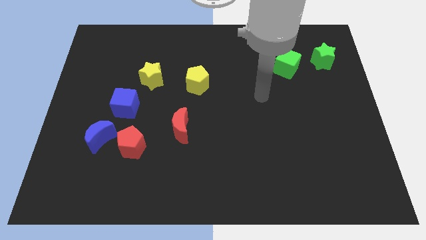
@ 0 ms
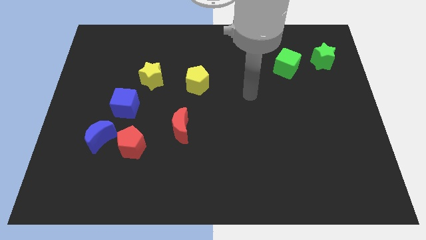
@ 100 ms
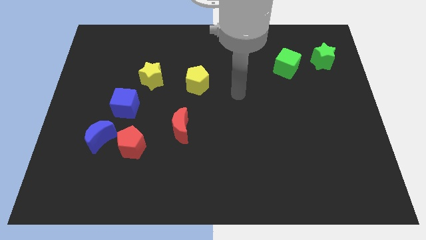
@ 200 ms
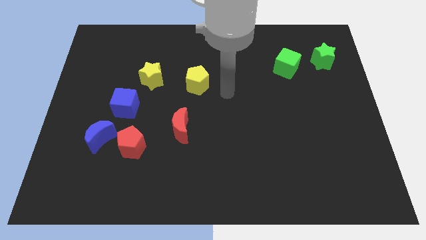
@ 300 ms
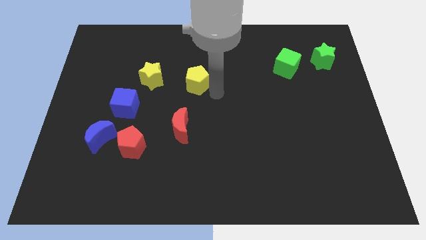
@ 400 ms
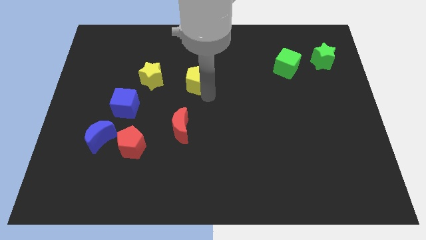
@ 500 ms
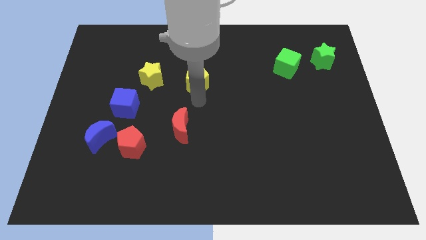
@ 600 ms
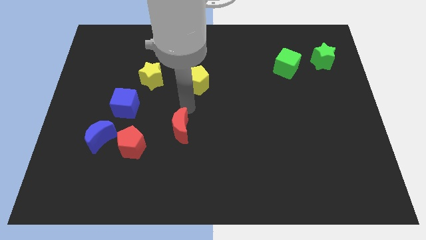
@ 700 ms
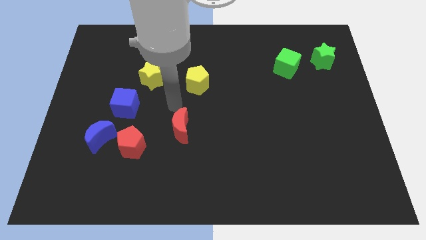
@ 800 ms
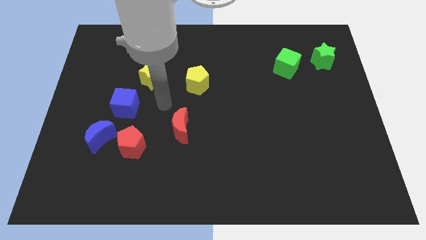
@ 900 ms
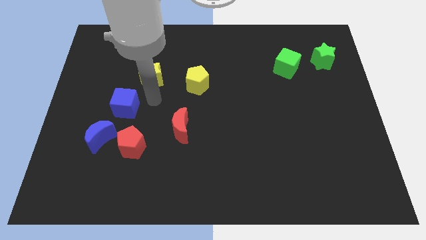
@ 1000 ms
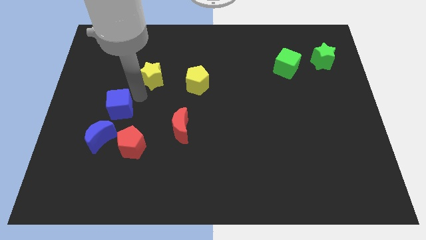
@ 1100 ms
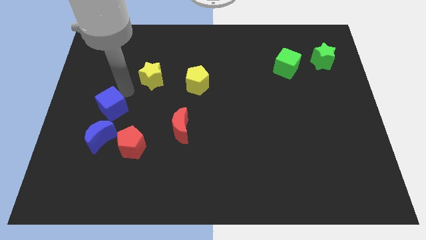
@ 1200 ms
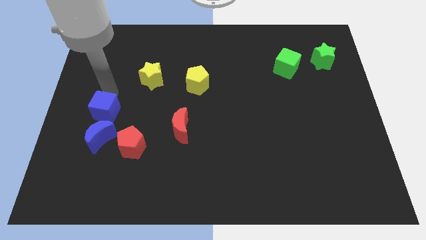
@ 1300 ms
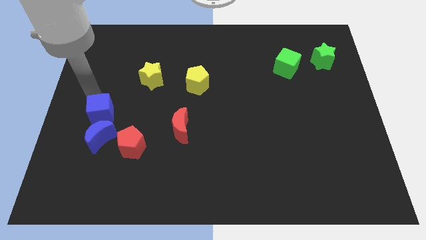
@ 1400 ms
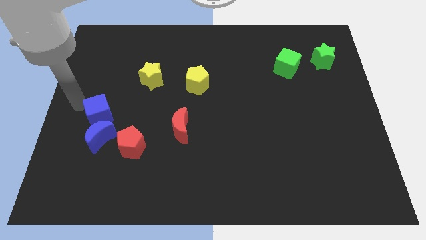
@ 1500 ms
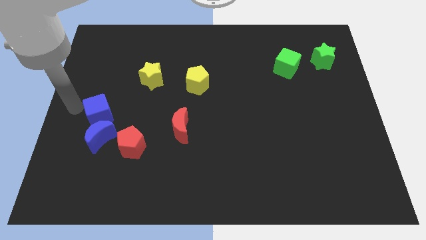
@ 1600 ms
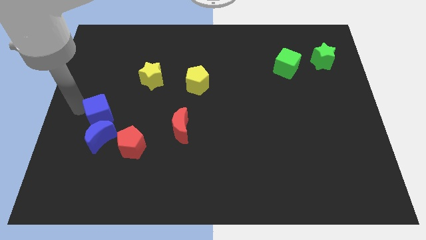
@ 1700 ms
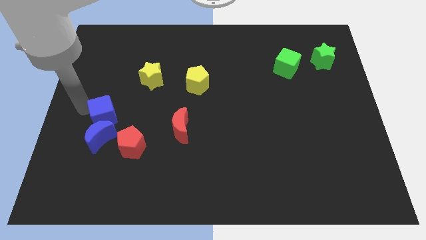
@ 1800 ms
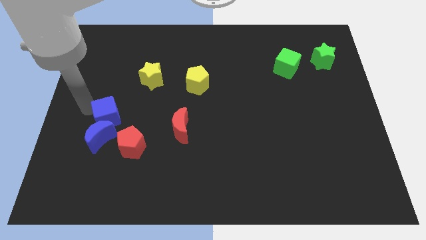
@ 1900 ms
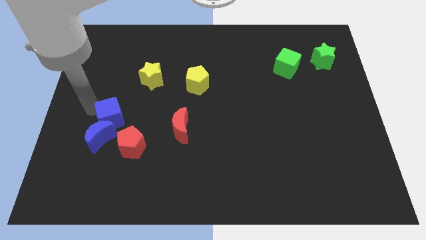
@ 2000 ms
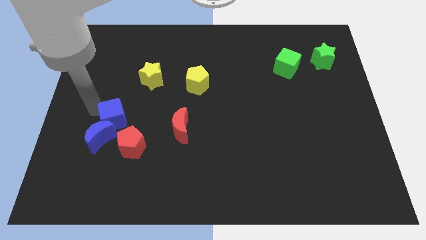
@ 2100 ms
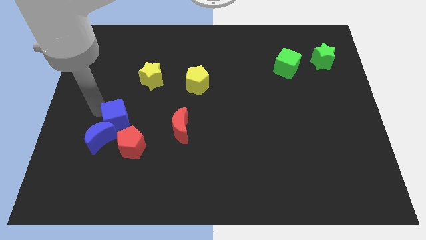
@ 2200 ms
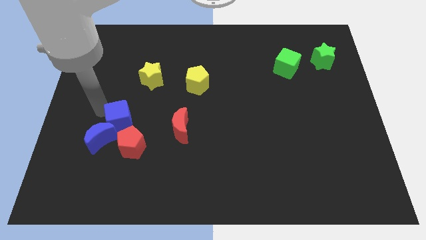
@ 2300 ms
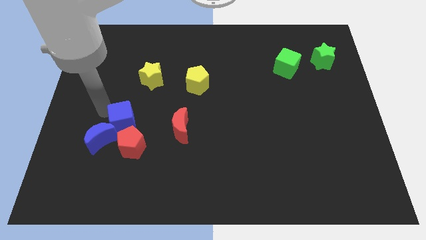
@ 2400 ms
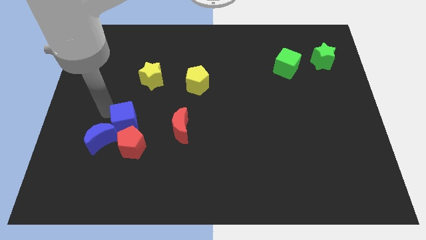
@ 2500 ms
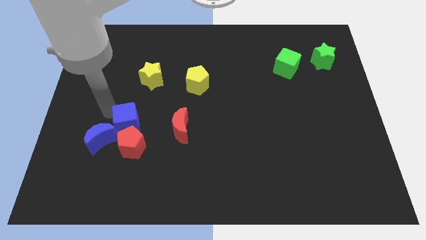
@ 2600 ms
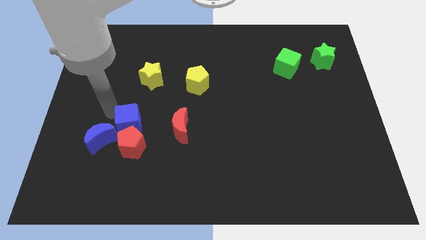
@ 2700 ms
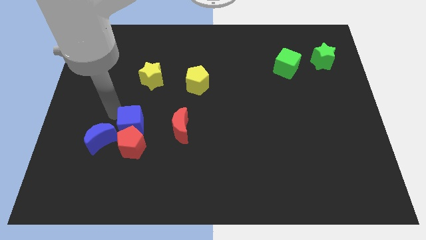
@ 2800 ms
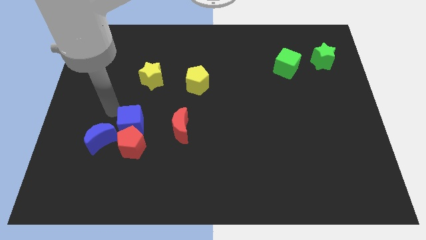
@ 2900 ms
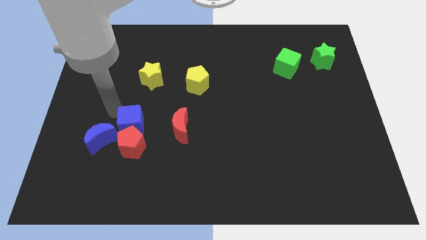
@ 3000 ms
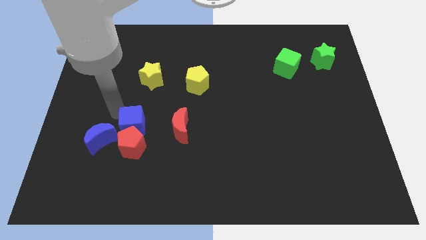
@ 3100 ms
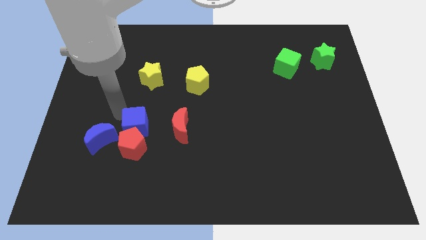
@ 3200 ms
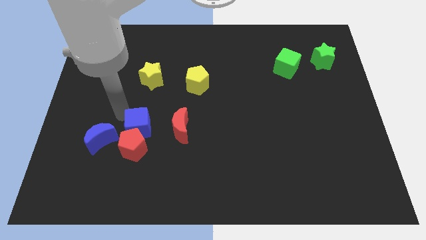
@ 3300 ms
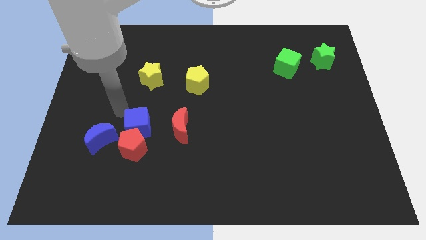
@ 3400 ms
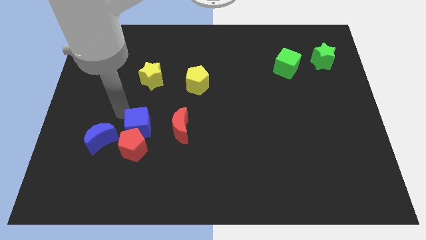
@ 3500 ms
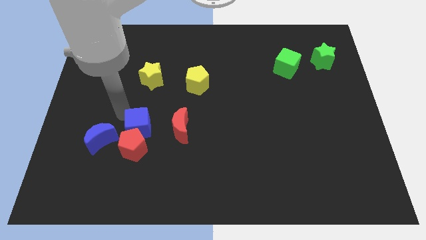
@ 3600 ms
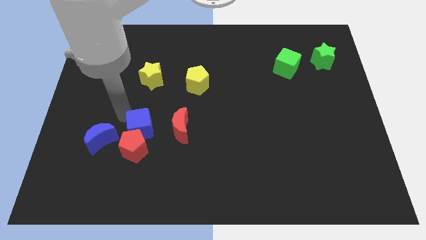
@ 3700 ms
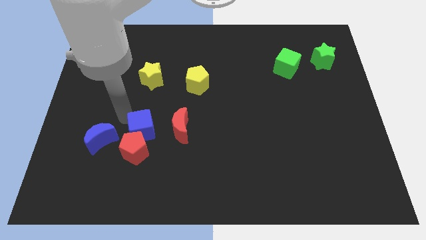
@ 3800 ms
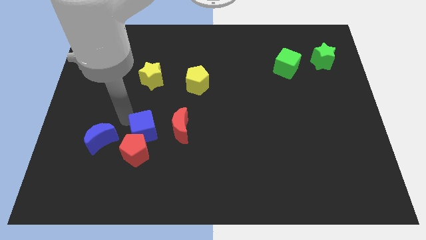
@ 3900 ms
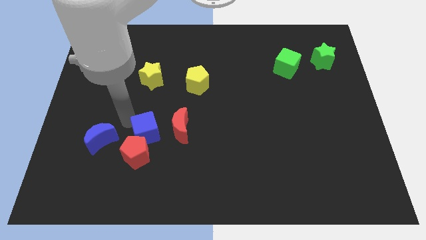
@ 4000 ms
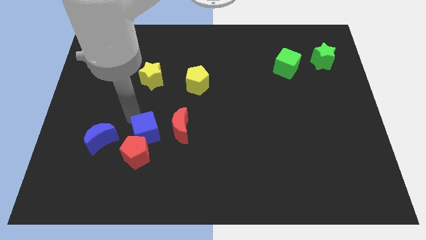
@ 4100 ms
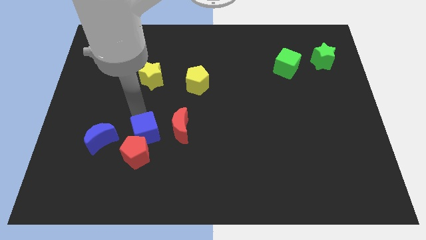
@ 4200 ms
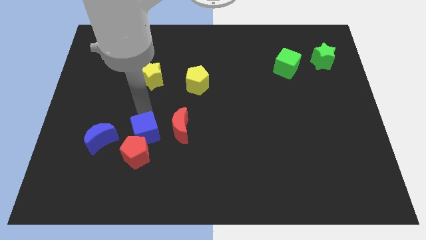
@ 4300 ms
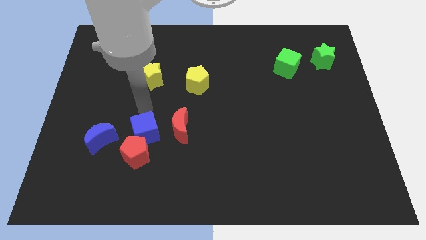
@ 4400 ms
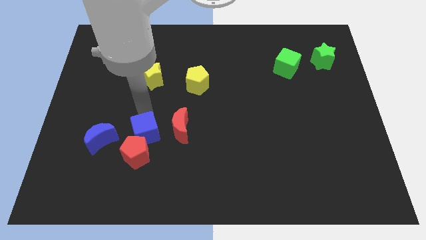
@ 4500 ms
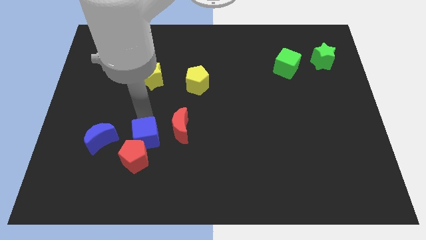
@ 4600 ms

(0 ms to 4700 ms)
slightly move the blue cube down

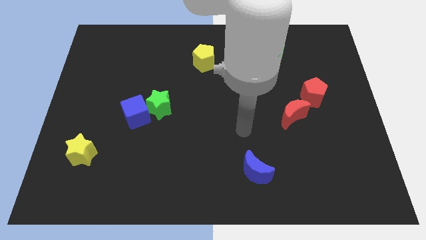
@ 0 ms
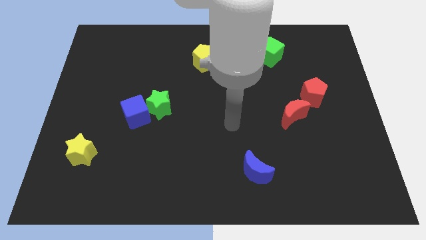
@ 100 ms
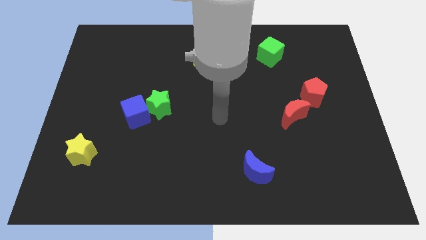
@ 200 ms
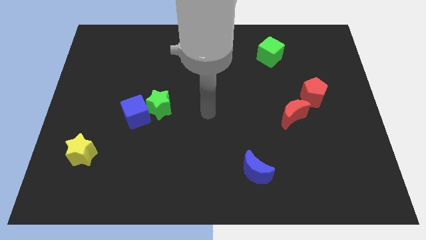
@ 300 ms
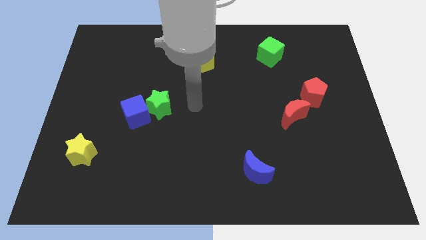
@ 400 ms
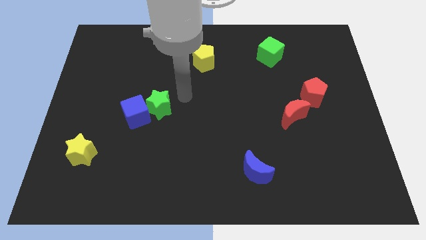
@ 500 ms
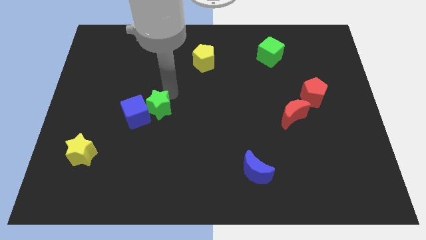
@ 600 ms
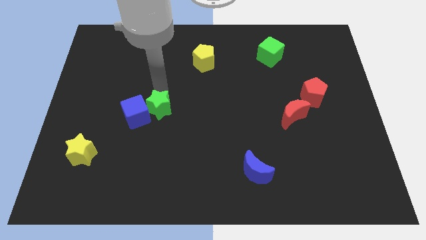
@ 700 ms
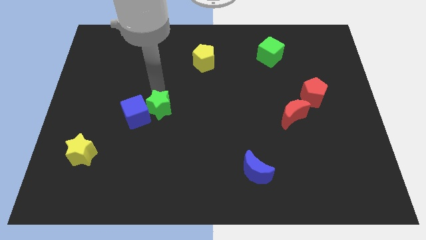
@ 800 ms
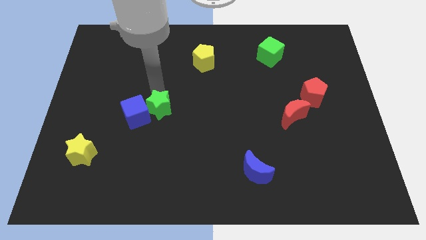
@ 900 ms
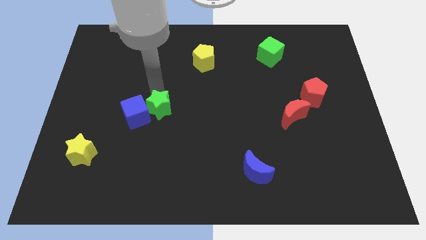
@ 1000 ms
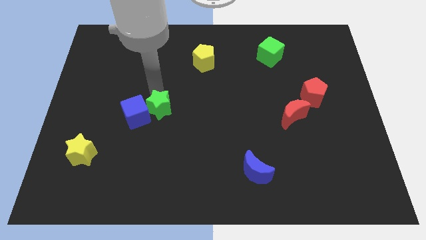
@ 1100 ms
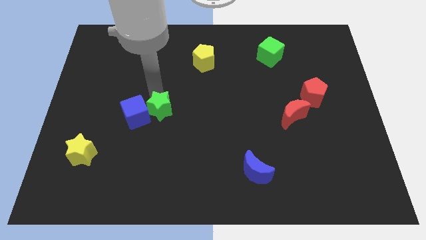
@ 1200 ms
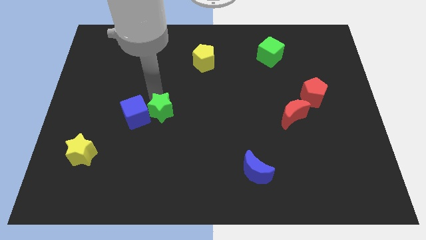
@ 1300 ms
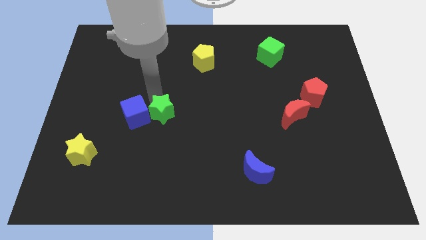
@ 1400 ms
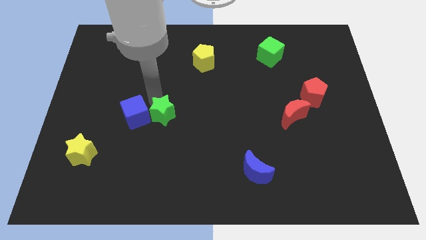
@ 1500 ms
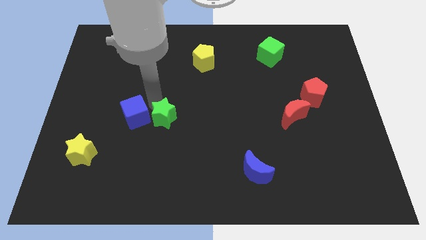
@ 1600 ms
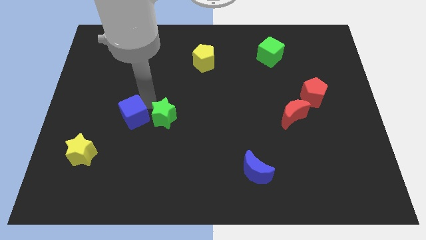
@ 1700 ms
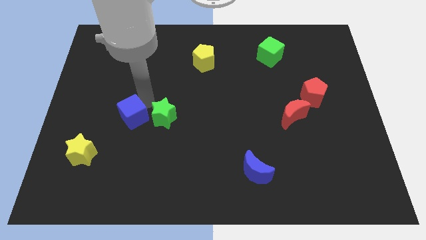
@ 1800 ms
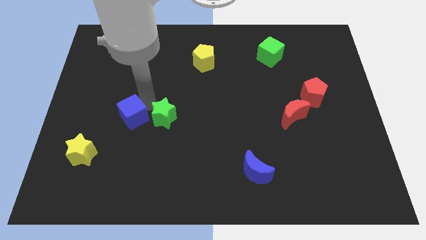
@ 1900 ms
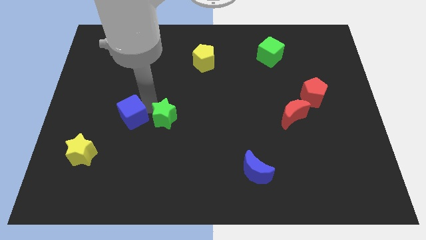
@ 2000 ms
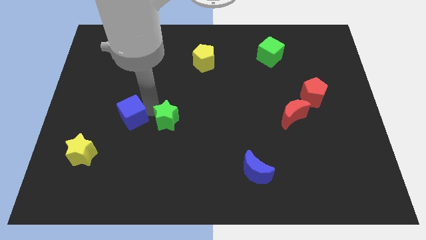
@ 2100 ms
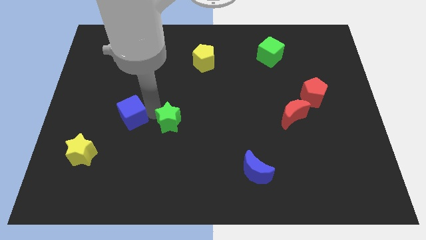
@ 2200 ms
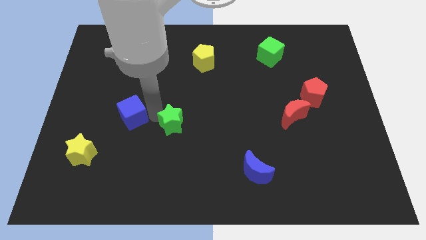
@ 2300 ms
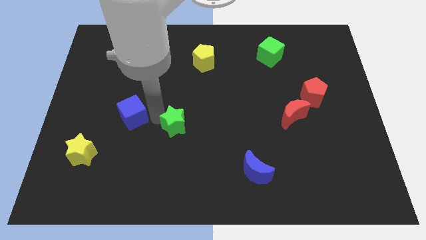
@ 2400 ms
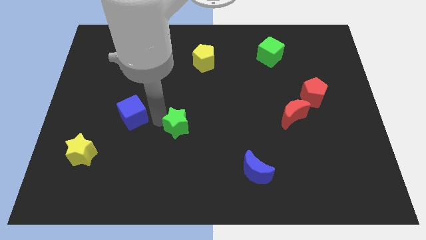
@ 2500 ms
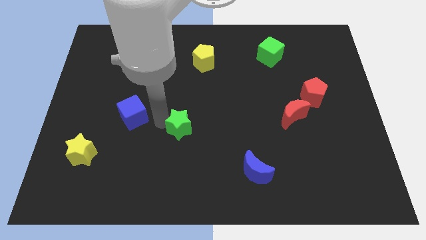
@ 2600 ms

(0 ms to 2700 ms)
move the green star a little bit downwards and then right

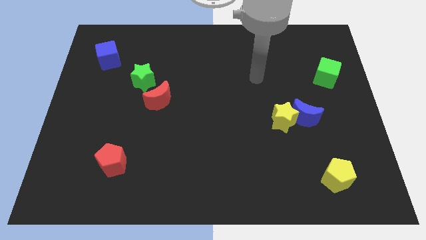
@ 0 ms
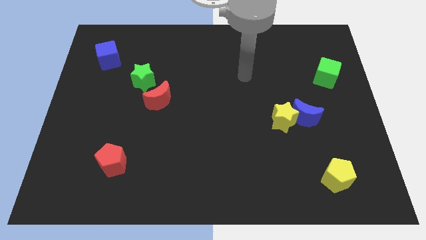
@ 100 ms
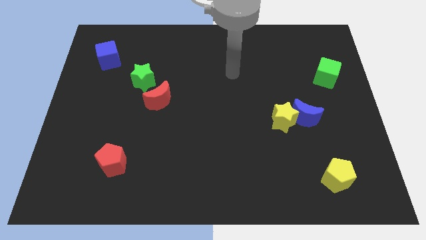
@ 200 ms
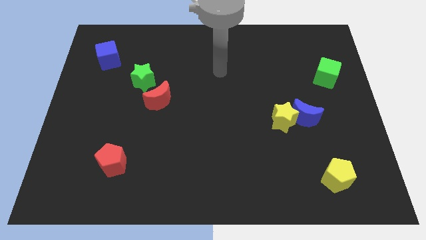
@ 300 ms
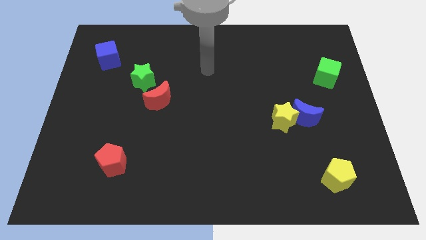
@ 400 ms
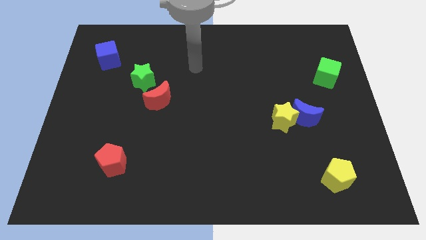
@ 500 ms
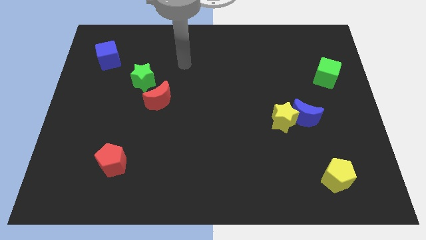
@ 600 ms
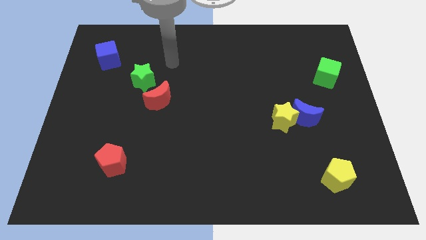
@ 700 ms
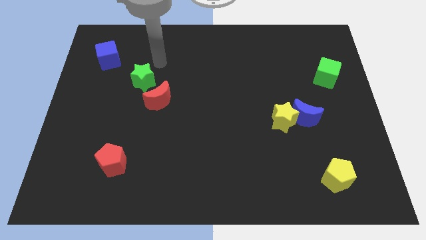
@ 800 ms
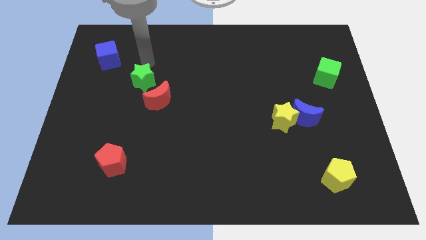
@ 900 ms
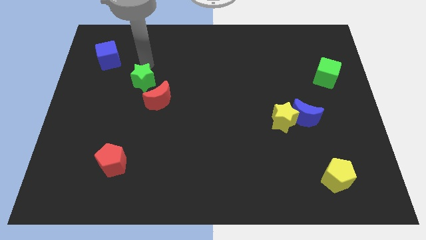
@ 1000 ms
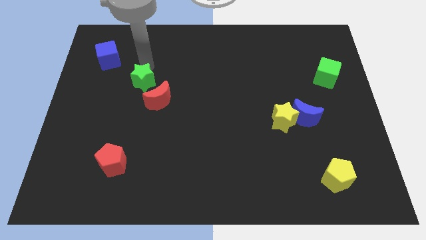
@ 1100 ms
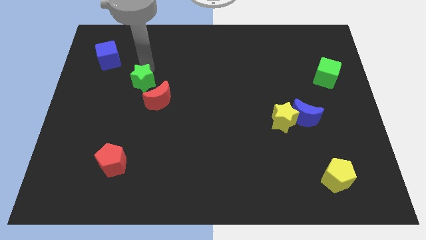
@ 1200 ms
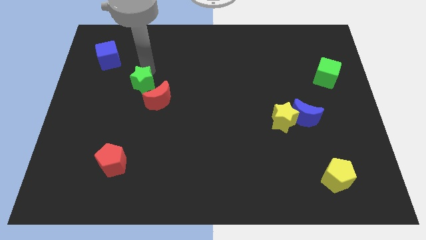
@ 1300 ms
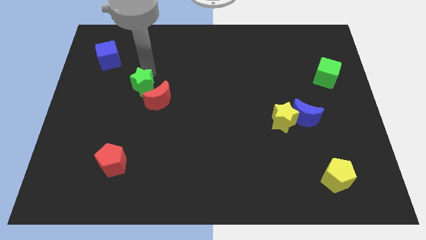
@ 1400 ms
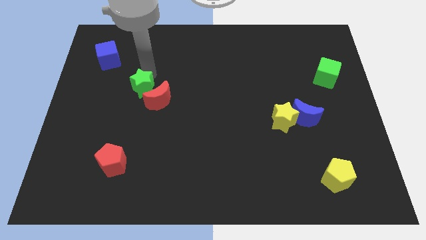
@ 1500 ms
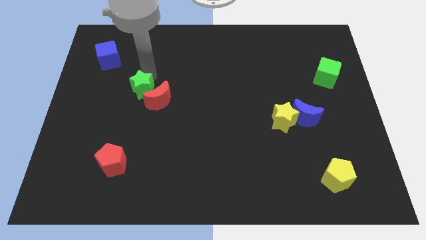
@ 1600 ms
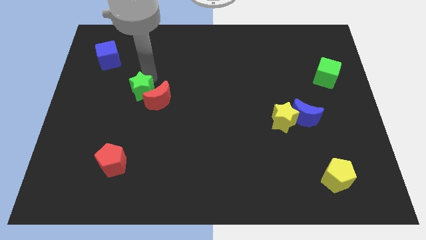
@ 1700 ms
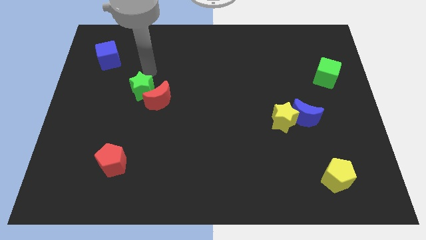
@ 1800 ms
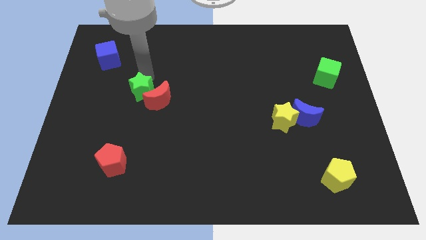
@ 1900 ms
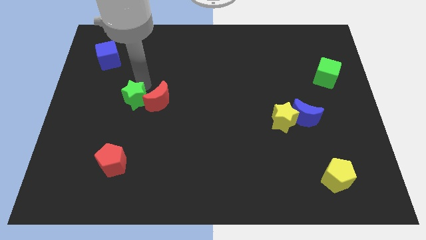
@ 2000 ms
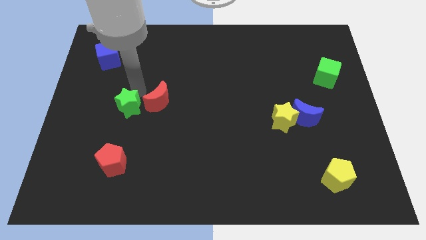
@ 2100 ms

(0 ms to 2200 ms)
push the green star somewhat downwards
